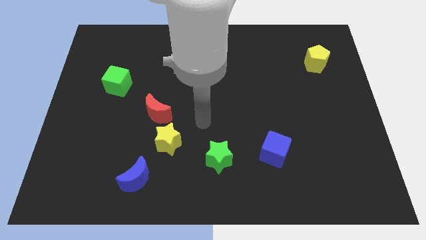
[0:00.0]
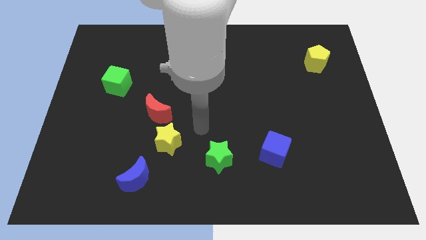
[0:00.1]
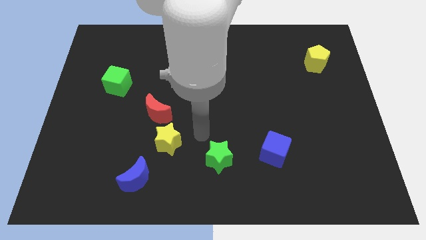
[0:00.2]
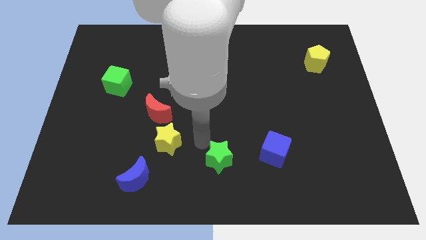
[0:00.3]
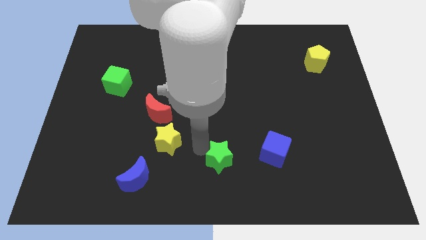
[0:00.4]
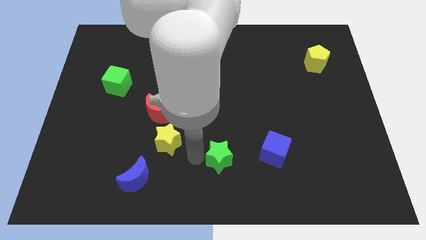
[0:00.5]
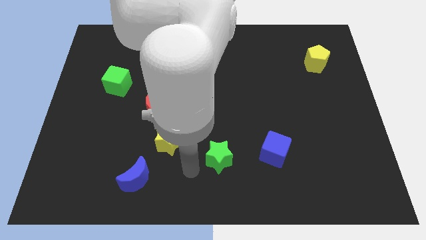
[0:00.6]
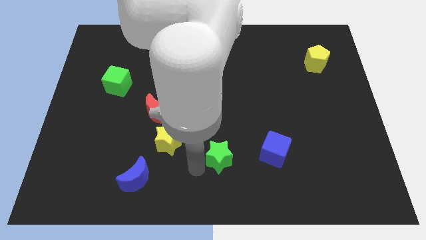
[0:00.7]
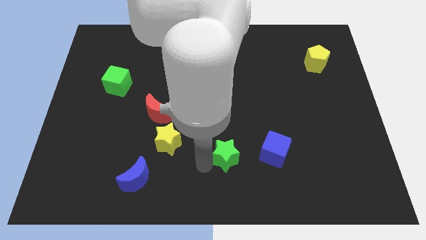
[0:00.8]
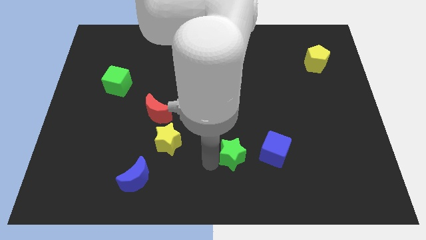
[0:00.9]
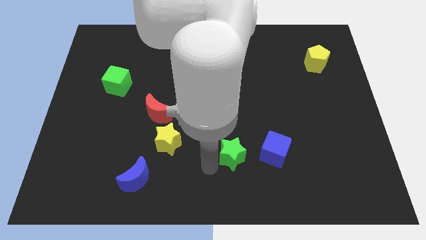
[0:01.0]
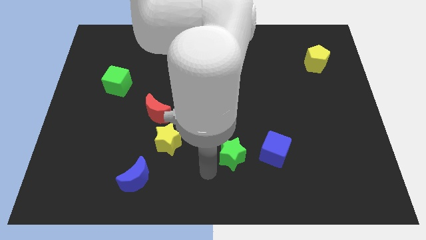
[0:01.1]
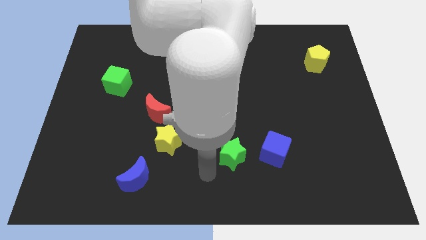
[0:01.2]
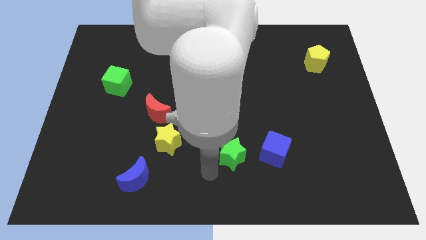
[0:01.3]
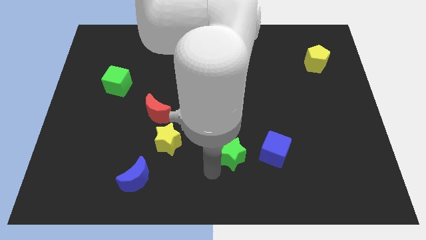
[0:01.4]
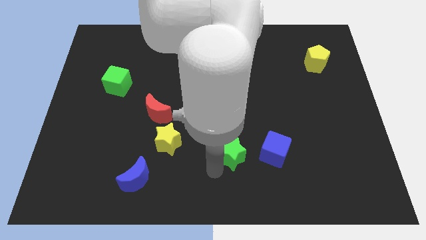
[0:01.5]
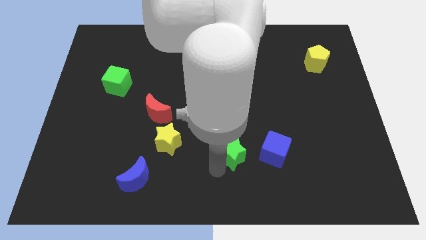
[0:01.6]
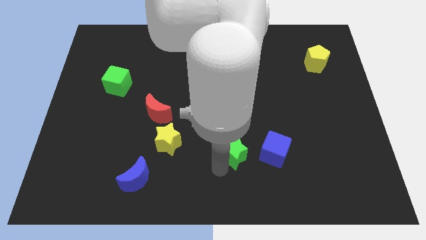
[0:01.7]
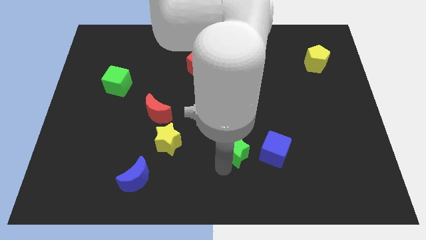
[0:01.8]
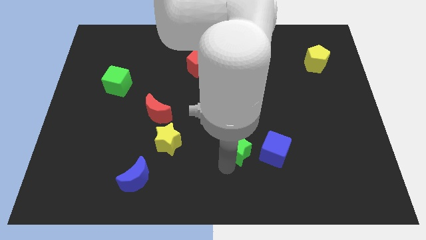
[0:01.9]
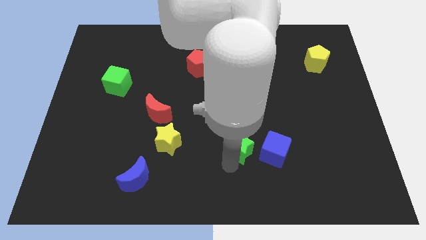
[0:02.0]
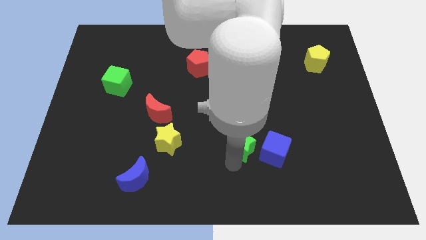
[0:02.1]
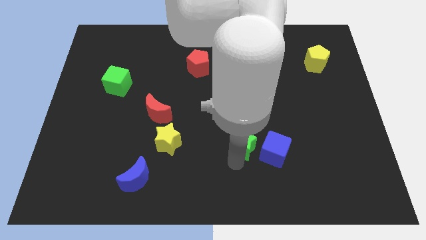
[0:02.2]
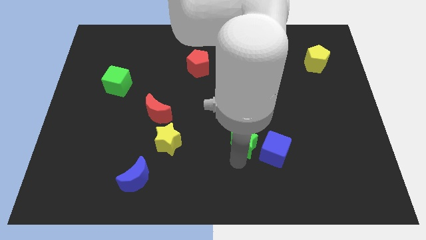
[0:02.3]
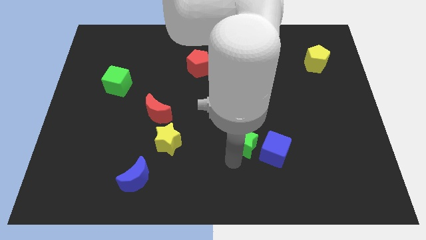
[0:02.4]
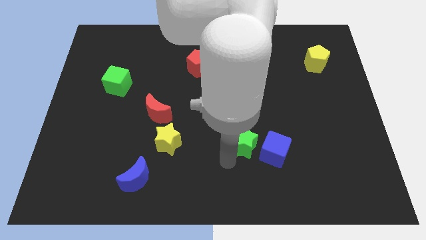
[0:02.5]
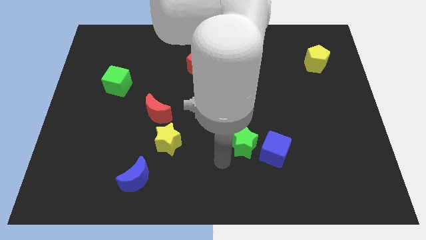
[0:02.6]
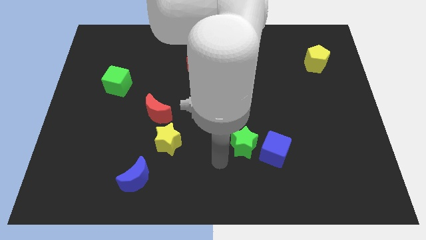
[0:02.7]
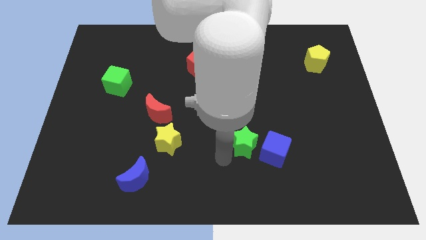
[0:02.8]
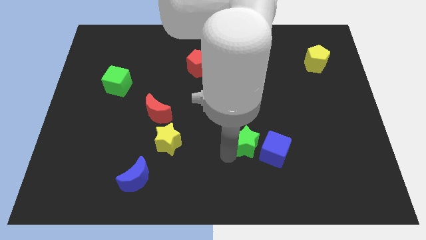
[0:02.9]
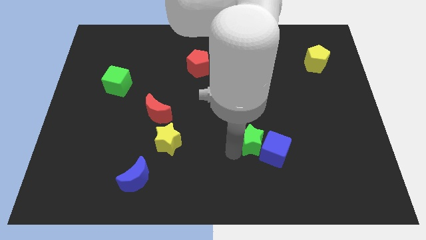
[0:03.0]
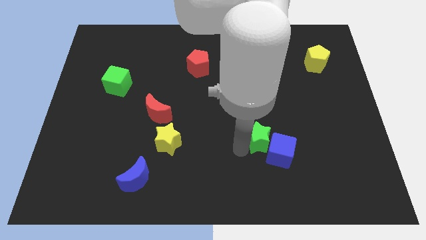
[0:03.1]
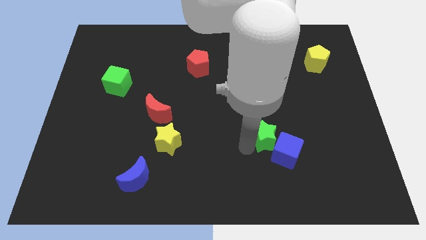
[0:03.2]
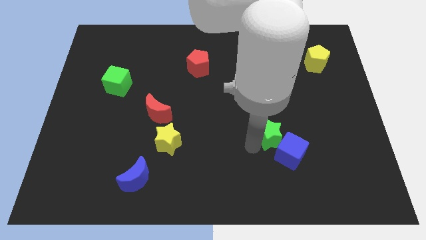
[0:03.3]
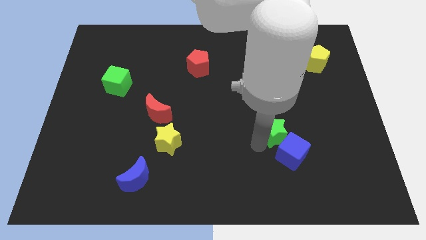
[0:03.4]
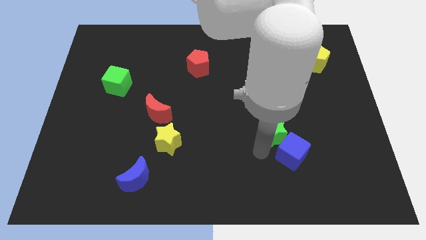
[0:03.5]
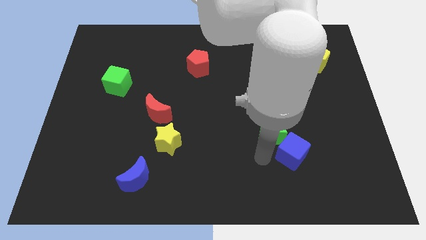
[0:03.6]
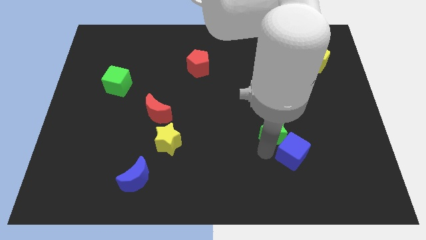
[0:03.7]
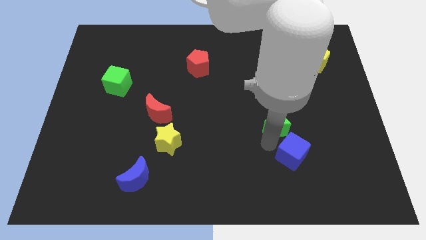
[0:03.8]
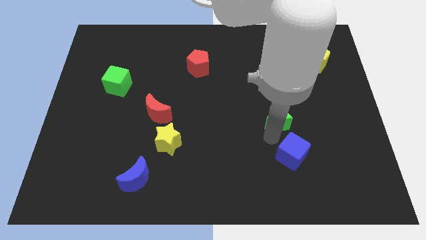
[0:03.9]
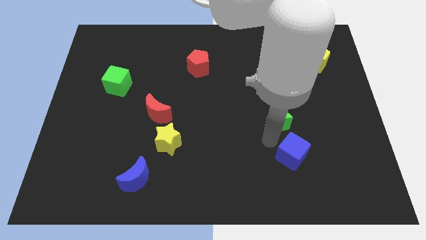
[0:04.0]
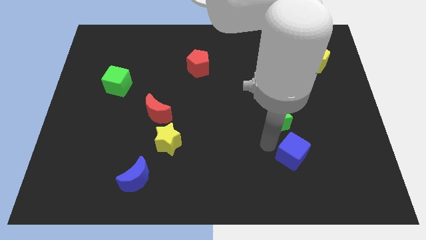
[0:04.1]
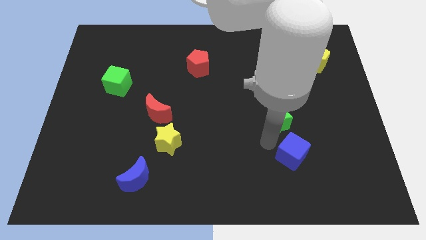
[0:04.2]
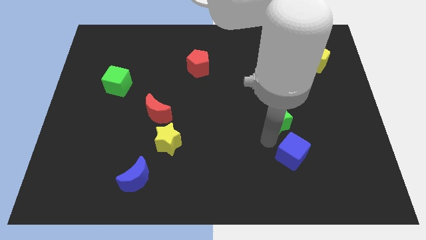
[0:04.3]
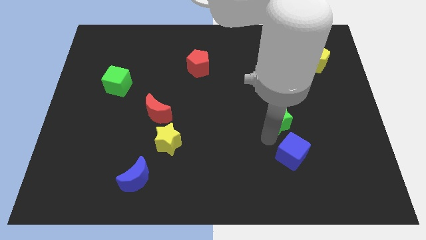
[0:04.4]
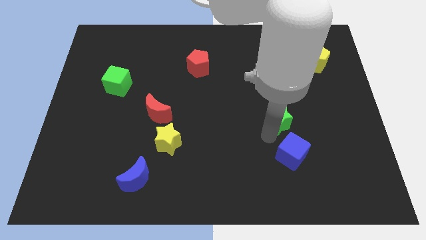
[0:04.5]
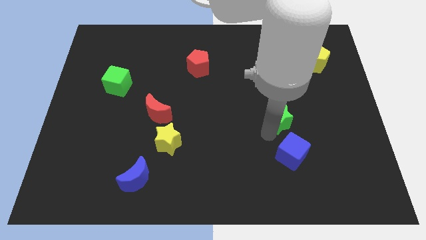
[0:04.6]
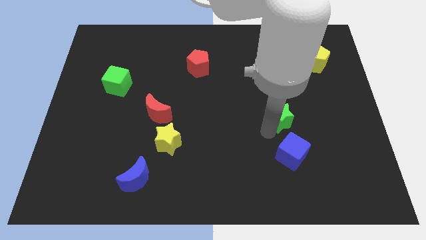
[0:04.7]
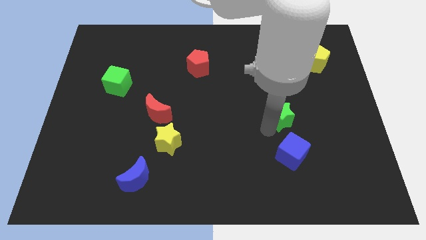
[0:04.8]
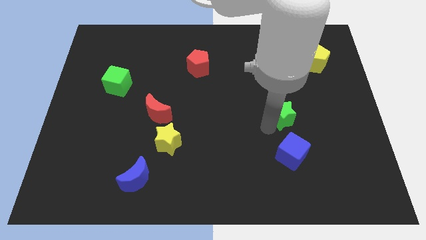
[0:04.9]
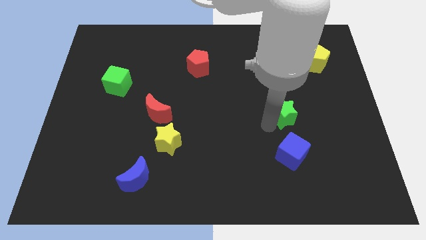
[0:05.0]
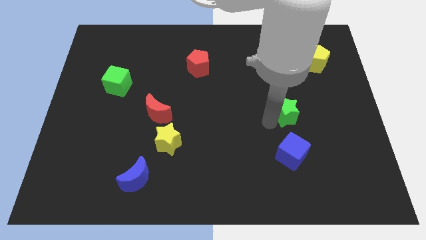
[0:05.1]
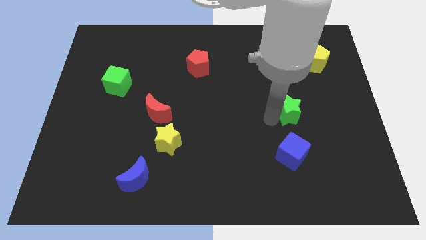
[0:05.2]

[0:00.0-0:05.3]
move the green star diagonally up and right

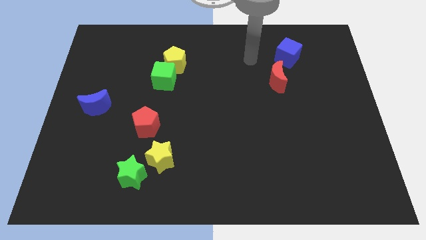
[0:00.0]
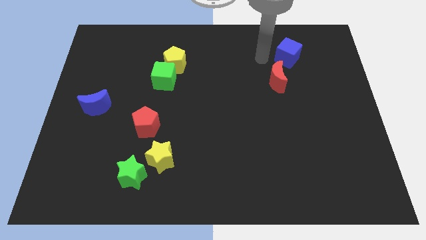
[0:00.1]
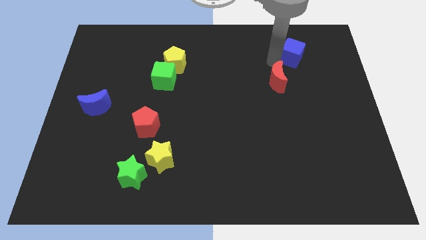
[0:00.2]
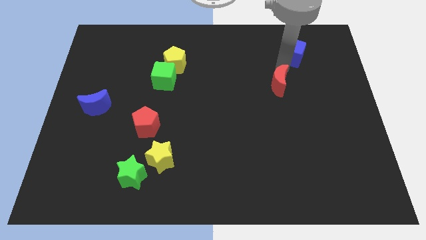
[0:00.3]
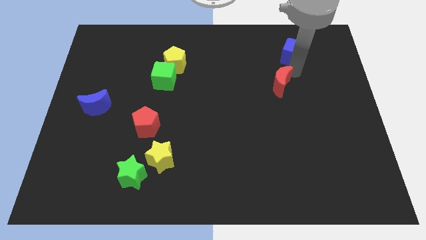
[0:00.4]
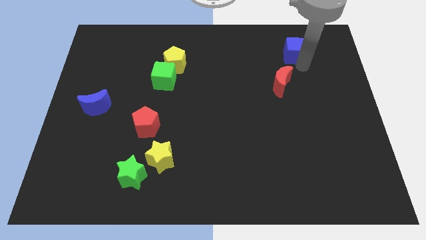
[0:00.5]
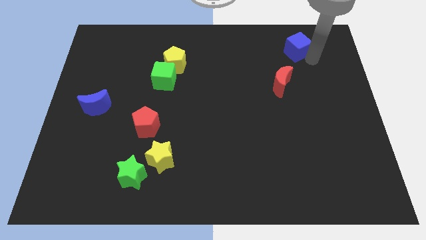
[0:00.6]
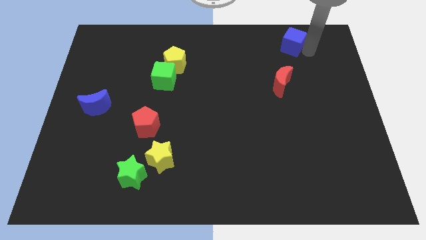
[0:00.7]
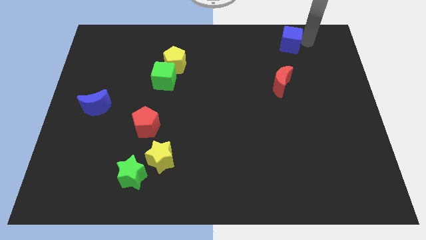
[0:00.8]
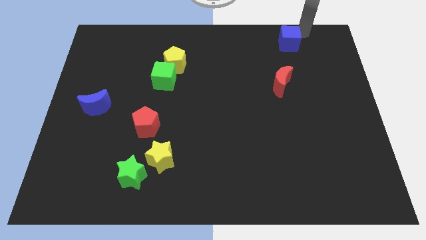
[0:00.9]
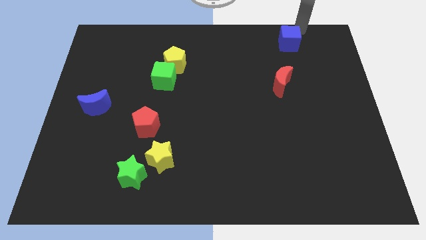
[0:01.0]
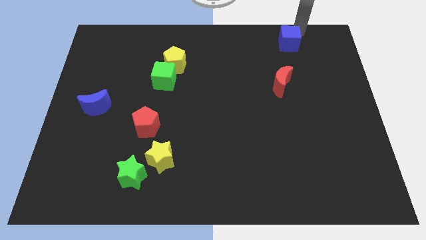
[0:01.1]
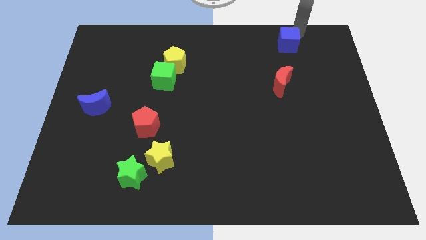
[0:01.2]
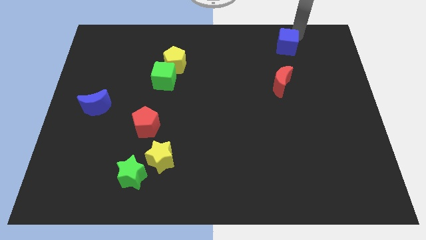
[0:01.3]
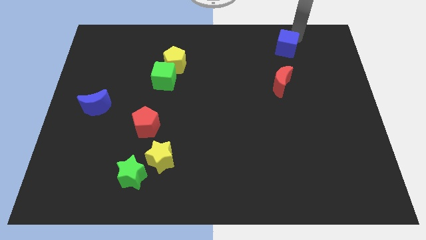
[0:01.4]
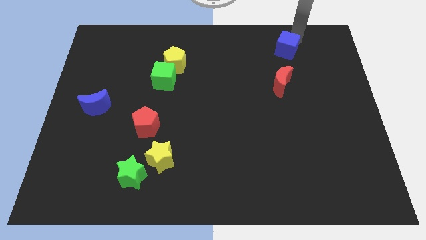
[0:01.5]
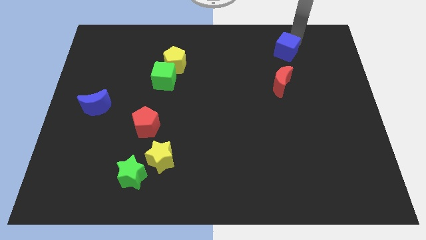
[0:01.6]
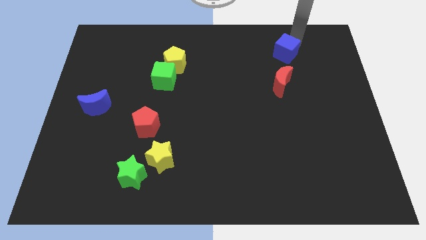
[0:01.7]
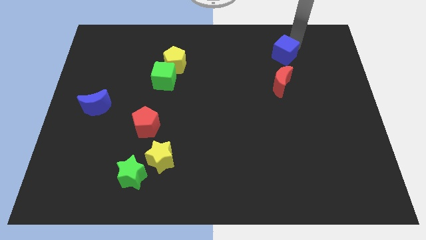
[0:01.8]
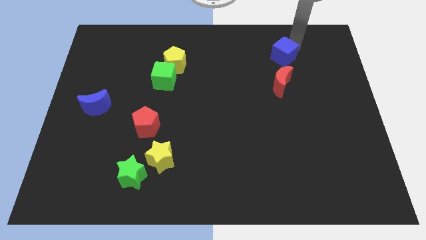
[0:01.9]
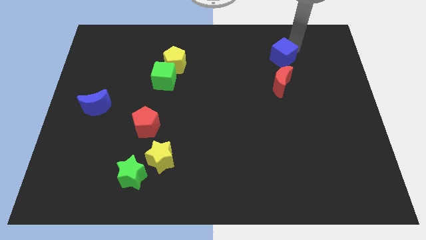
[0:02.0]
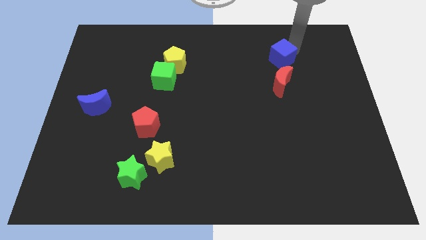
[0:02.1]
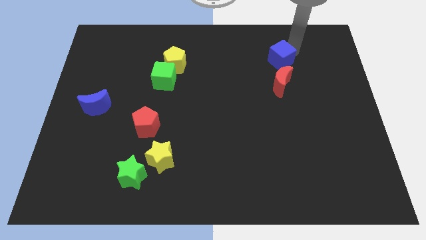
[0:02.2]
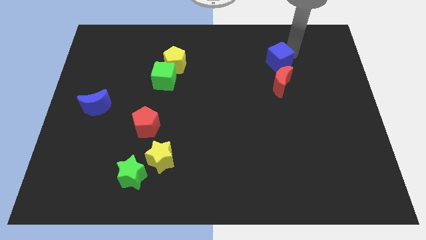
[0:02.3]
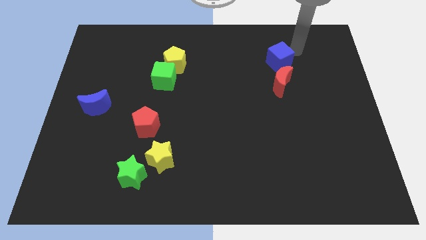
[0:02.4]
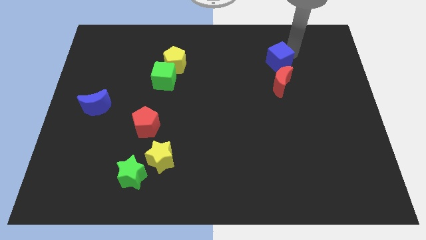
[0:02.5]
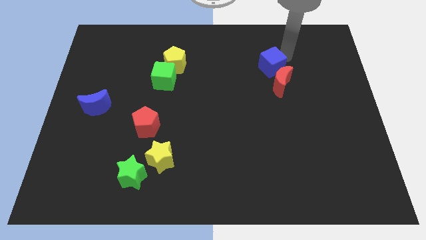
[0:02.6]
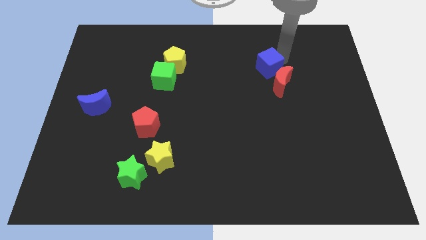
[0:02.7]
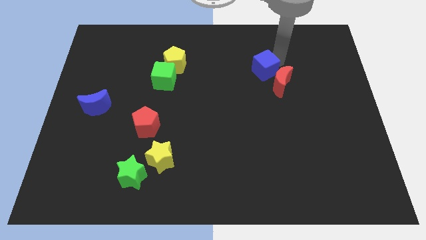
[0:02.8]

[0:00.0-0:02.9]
move the blue cube somewhat diagonally downwards and left
